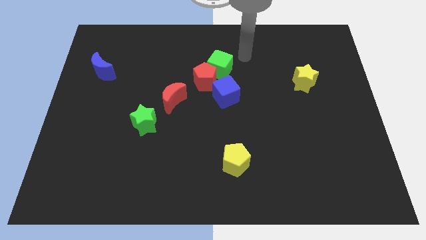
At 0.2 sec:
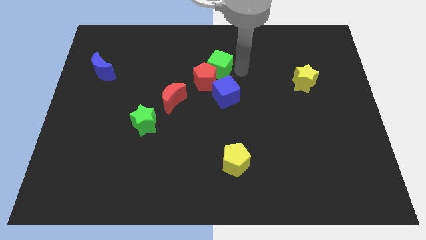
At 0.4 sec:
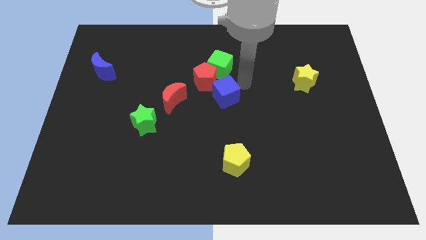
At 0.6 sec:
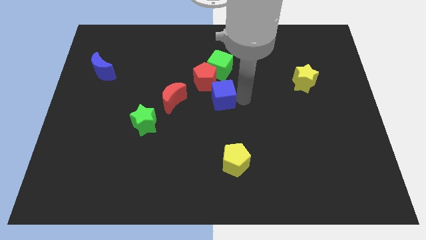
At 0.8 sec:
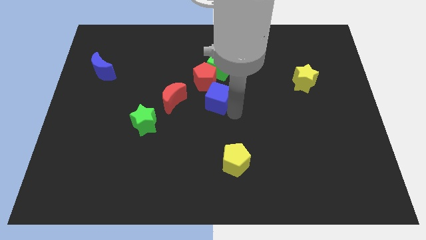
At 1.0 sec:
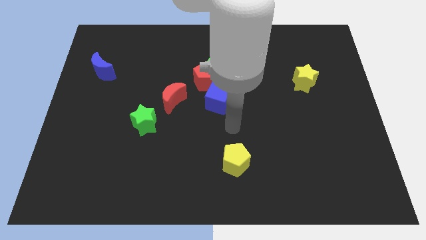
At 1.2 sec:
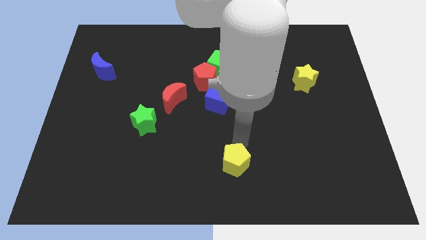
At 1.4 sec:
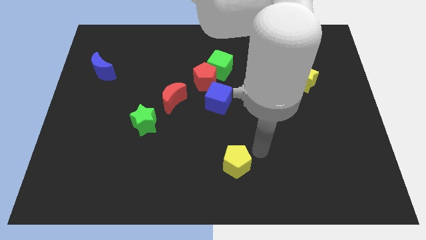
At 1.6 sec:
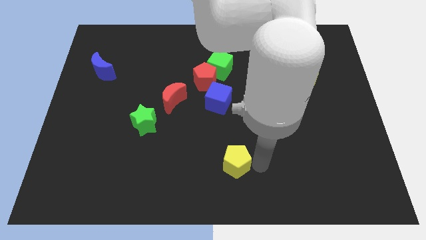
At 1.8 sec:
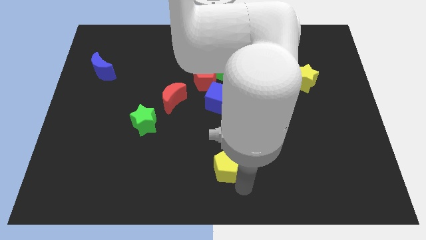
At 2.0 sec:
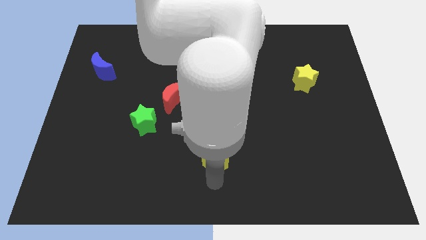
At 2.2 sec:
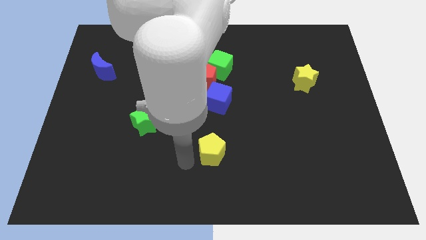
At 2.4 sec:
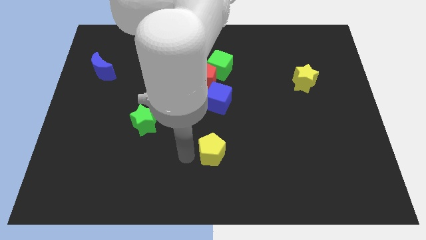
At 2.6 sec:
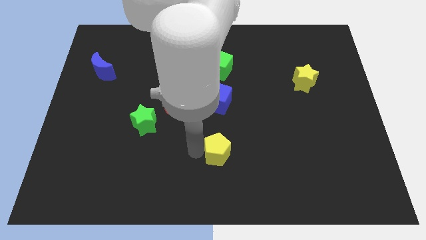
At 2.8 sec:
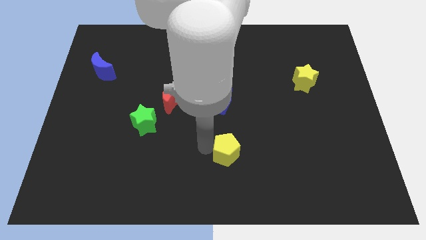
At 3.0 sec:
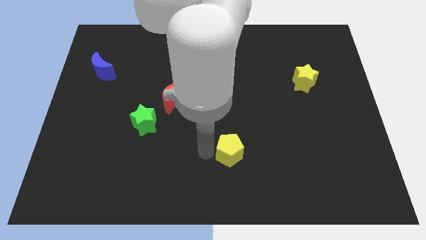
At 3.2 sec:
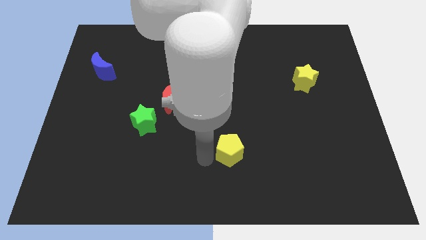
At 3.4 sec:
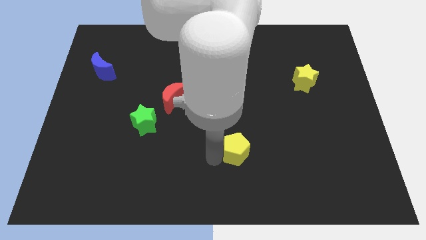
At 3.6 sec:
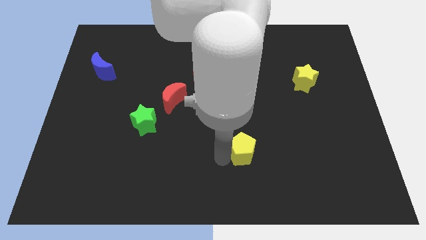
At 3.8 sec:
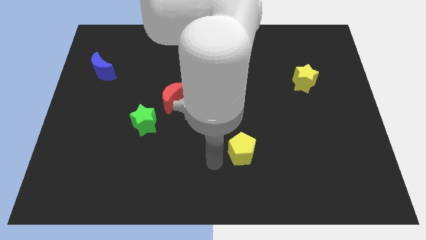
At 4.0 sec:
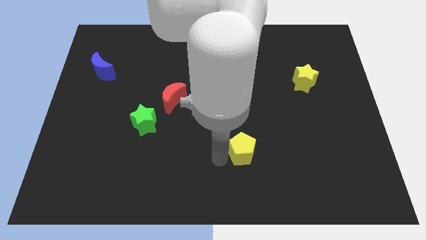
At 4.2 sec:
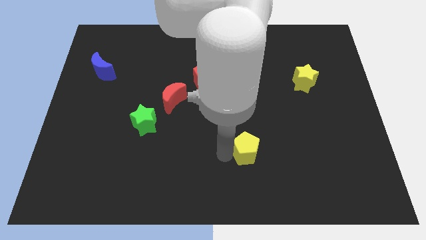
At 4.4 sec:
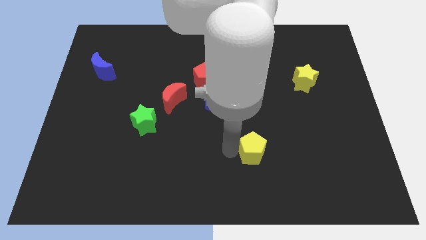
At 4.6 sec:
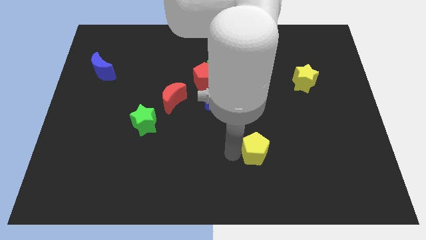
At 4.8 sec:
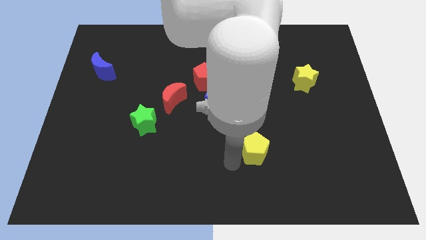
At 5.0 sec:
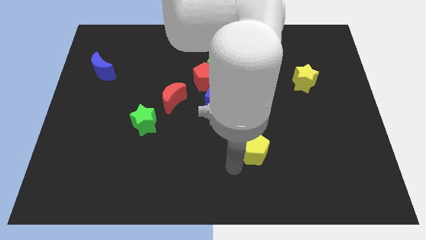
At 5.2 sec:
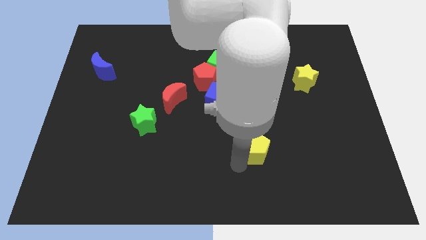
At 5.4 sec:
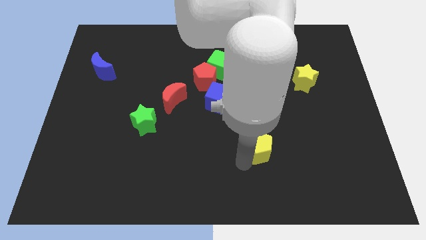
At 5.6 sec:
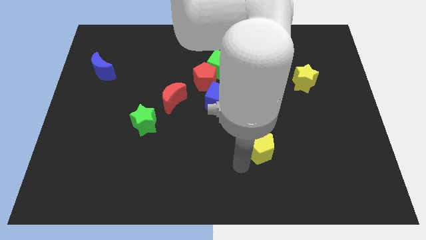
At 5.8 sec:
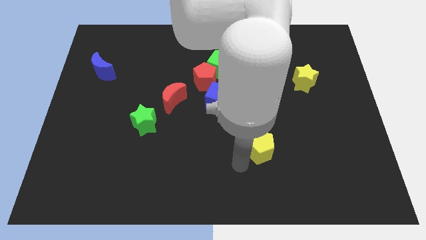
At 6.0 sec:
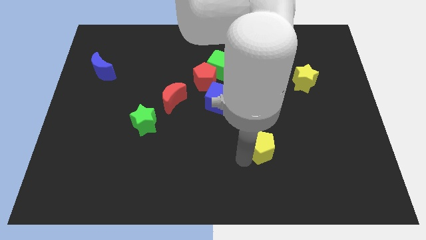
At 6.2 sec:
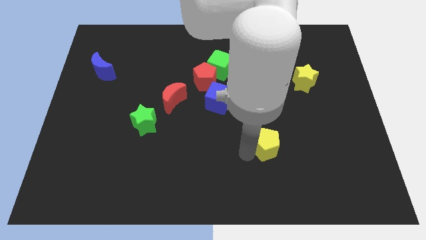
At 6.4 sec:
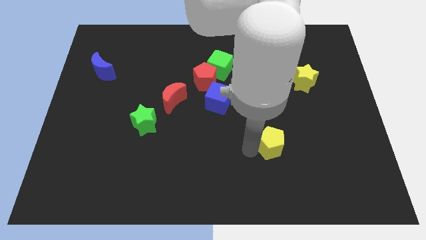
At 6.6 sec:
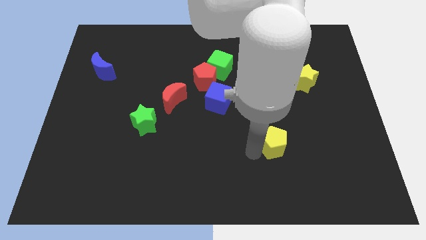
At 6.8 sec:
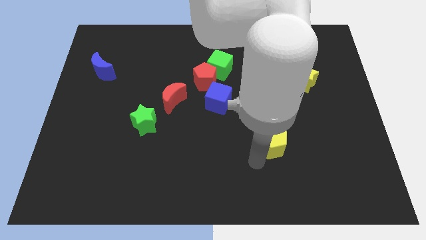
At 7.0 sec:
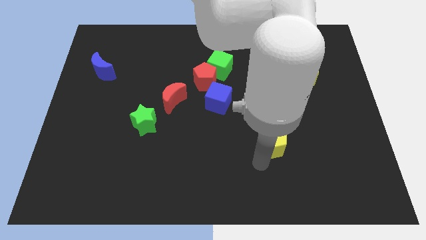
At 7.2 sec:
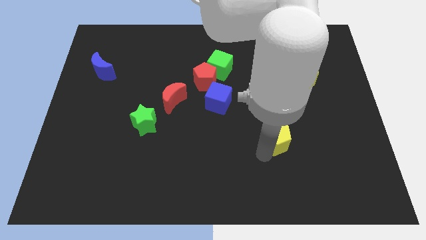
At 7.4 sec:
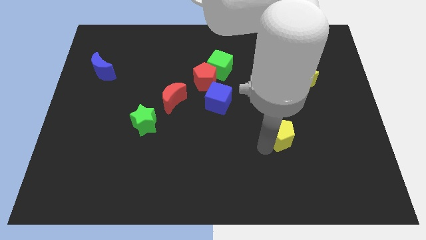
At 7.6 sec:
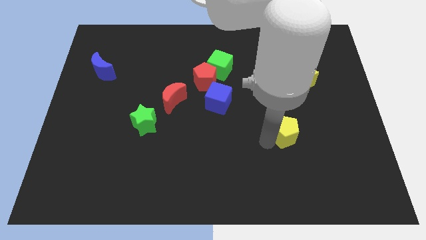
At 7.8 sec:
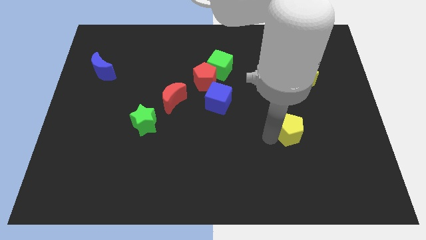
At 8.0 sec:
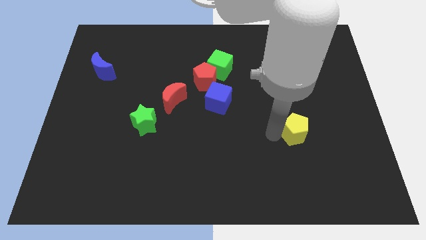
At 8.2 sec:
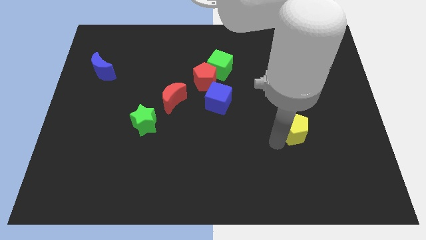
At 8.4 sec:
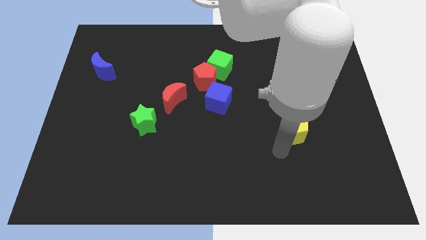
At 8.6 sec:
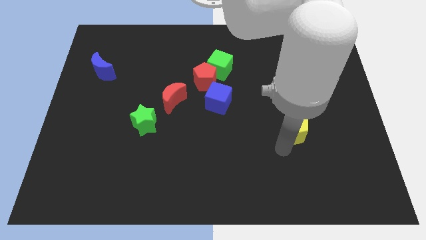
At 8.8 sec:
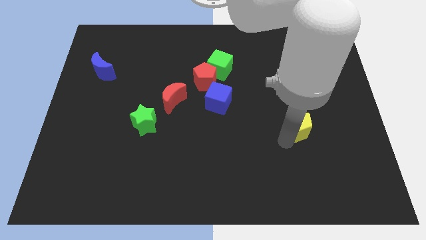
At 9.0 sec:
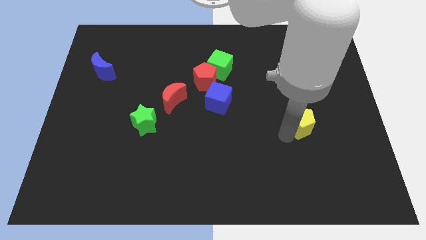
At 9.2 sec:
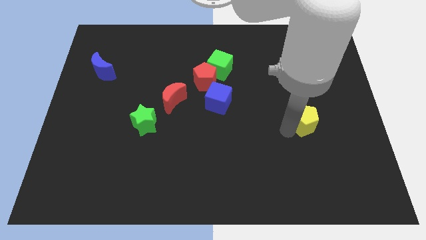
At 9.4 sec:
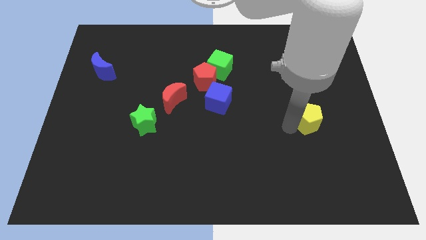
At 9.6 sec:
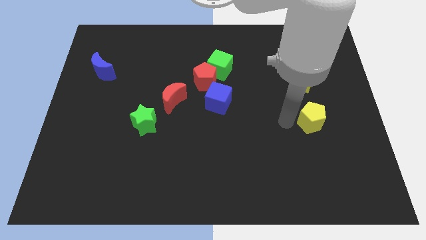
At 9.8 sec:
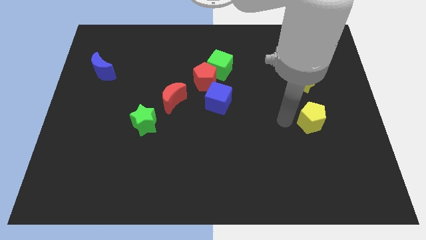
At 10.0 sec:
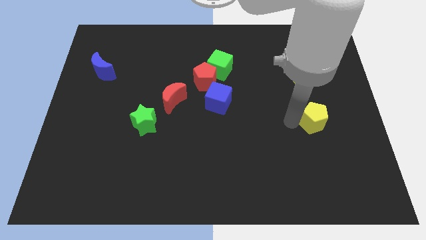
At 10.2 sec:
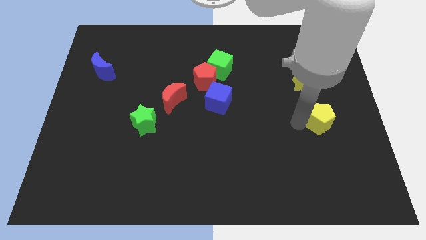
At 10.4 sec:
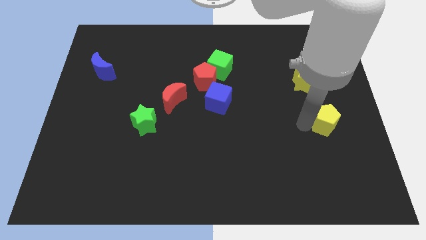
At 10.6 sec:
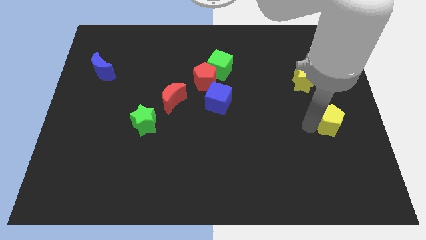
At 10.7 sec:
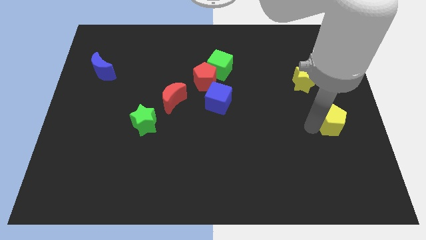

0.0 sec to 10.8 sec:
put the yellow pentagon to the right side of the board
